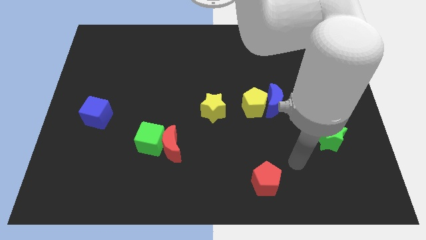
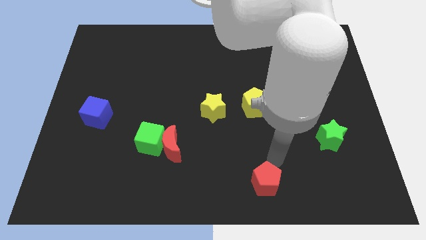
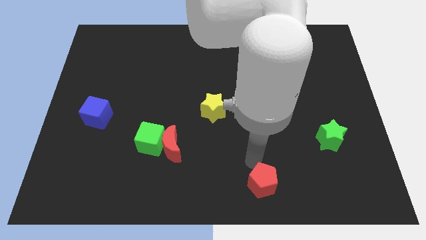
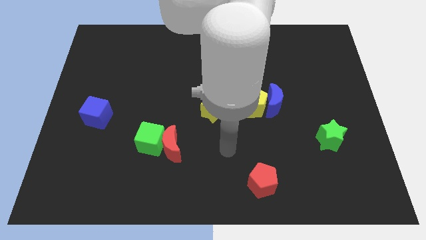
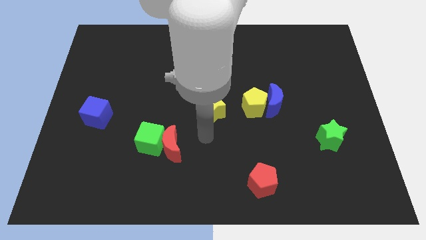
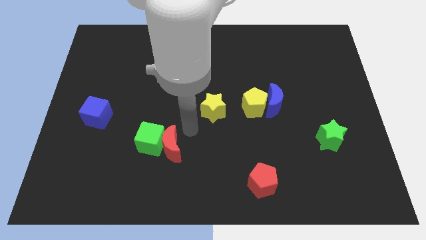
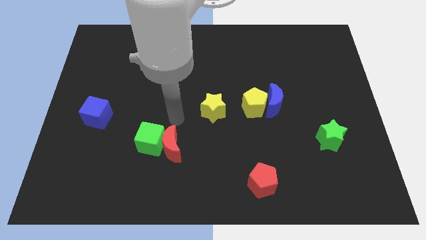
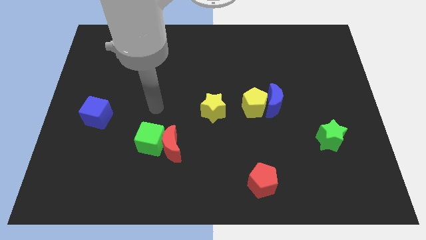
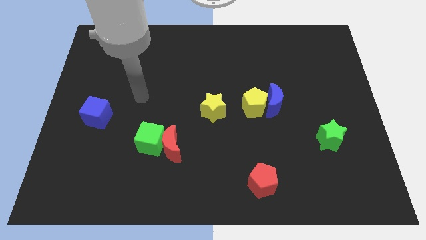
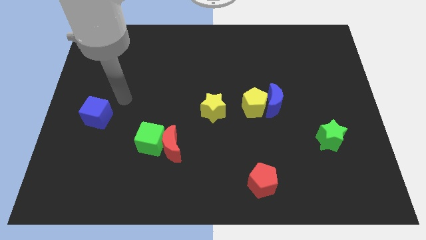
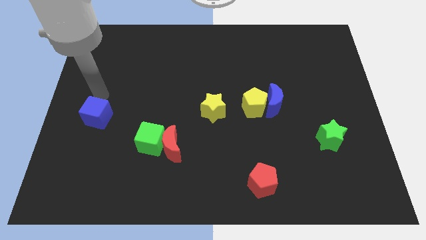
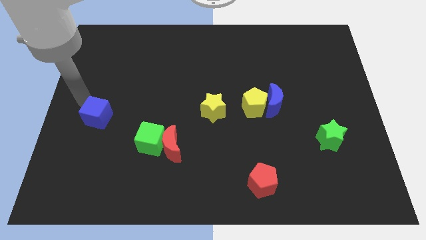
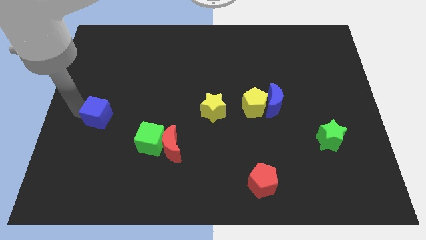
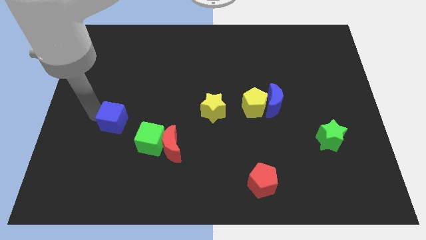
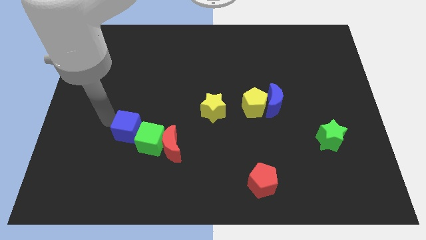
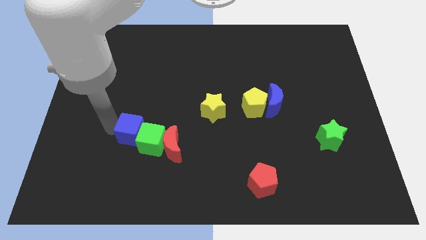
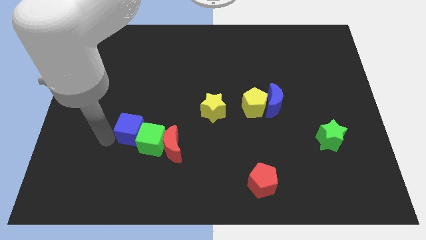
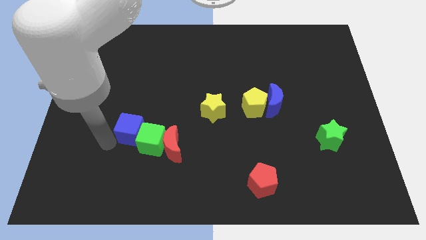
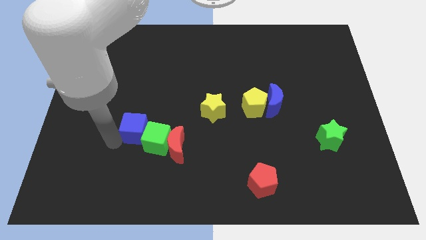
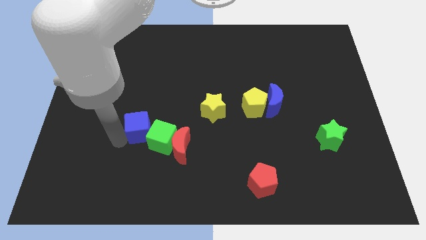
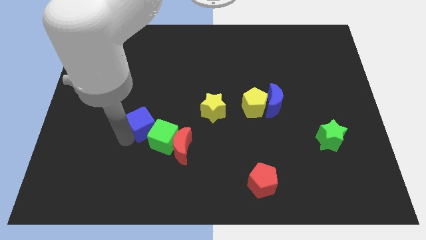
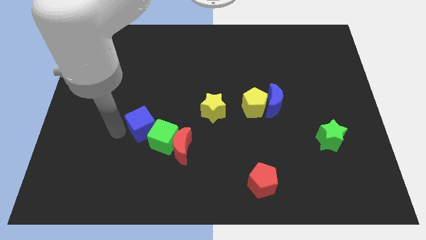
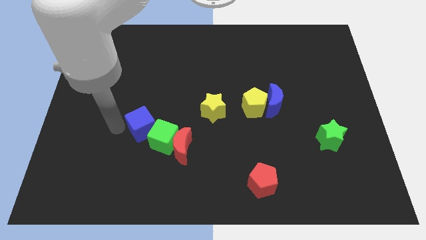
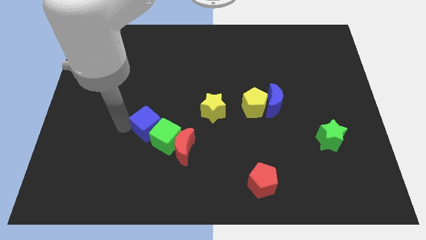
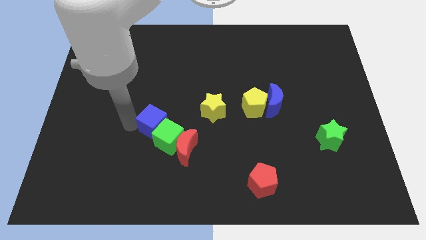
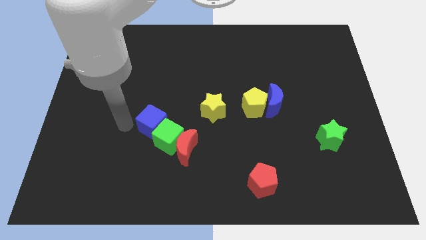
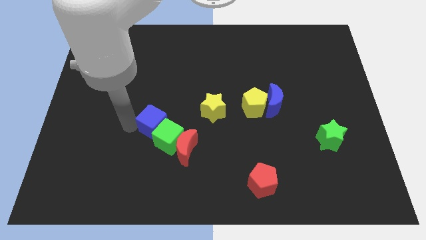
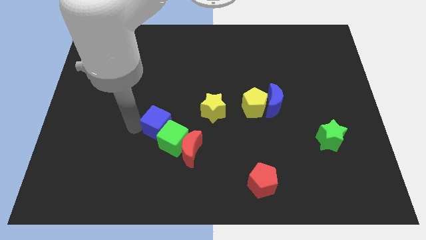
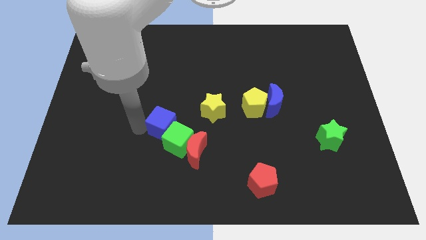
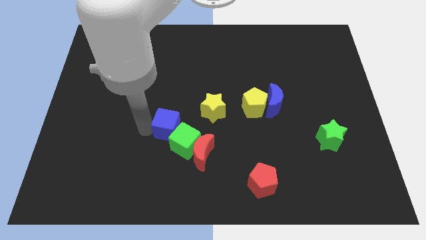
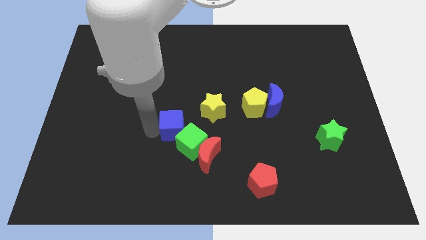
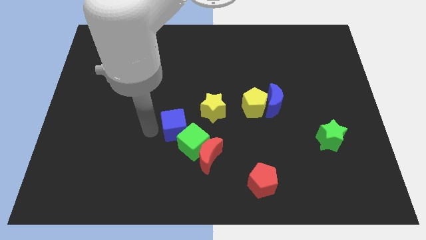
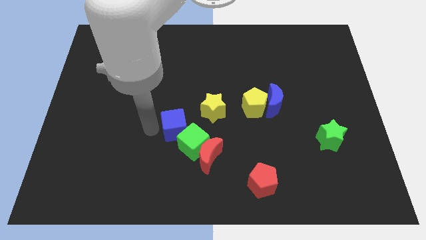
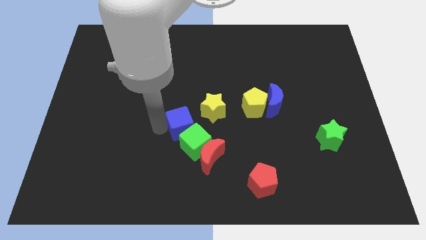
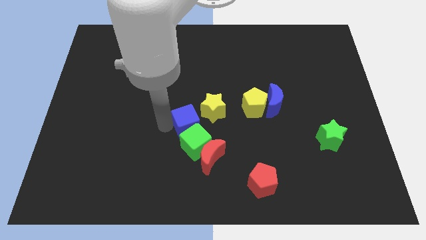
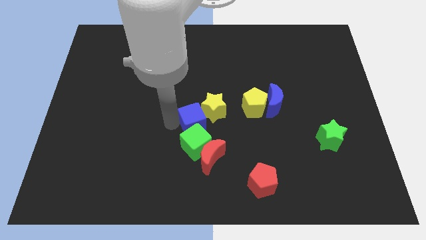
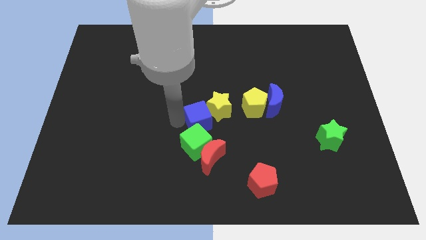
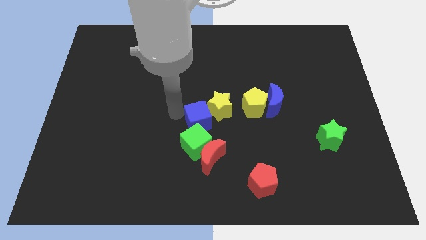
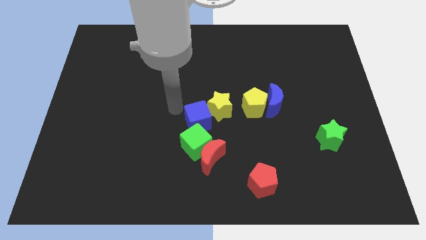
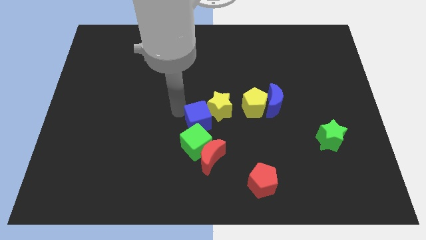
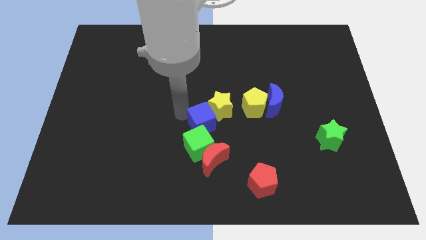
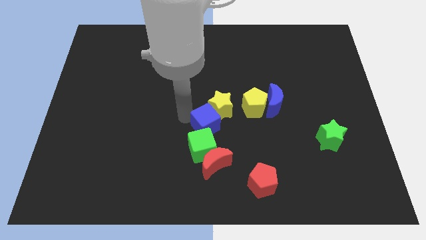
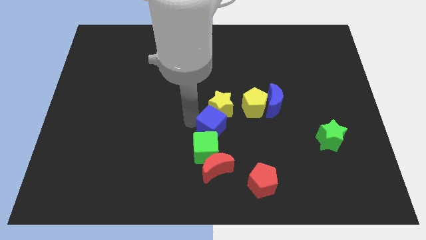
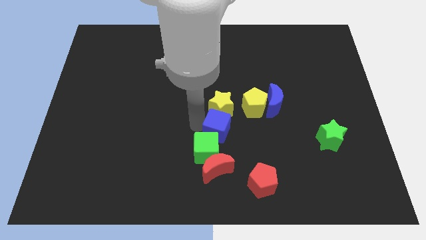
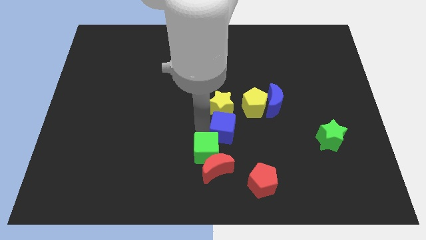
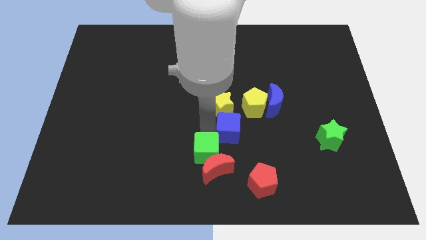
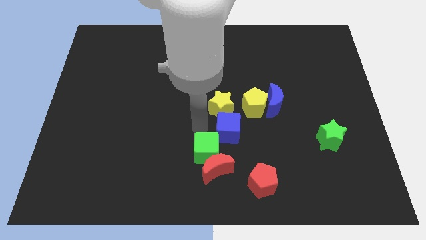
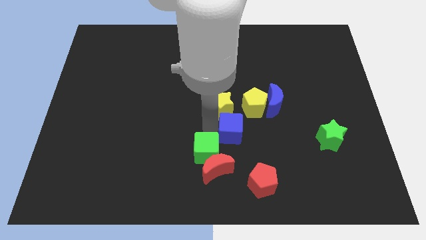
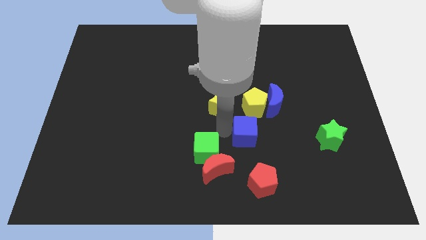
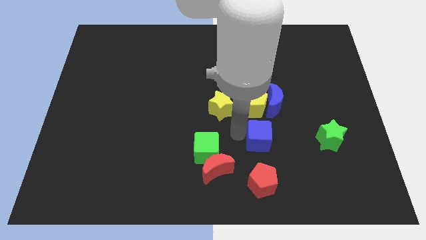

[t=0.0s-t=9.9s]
slide the blue cube left of the green star

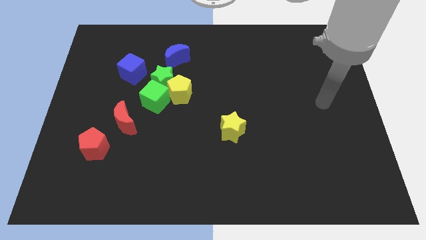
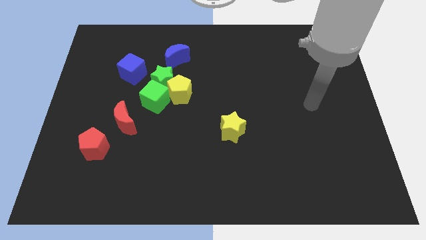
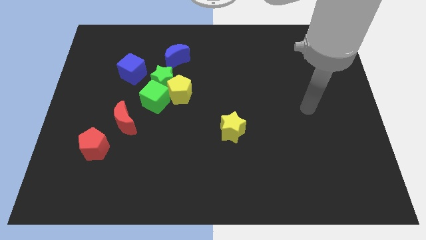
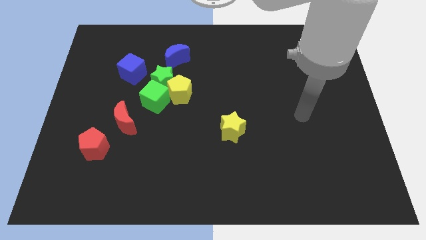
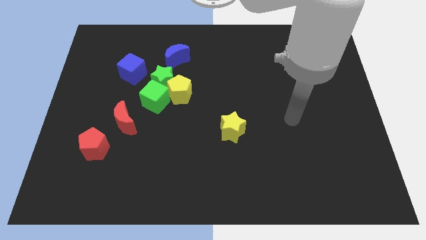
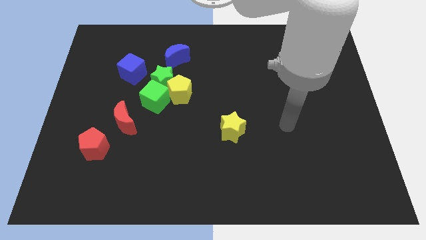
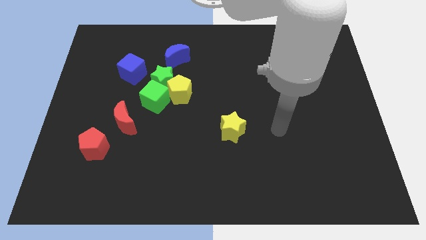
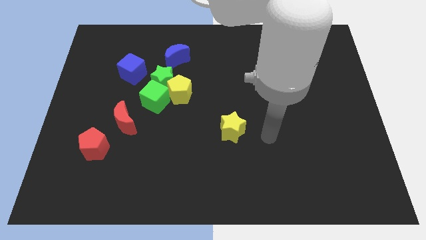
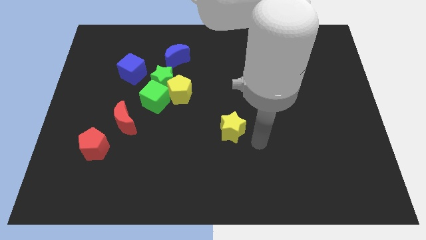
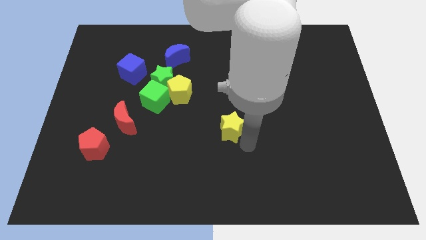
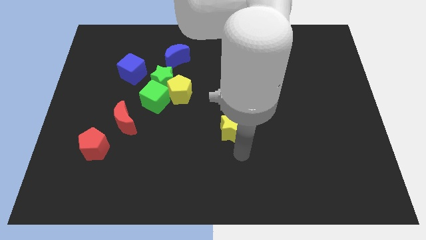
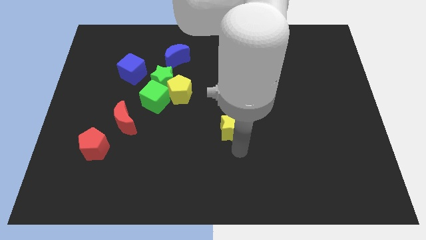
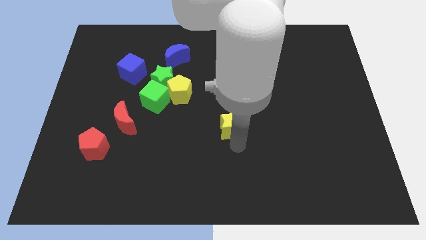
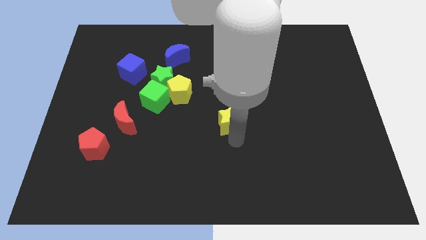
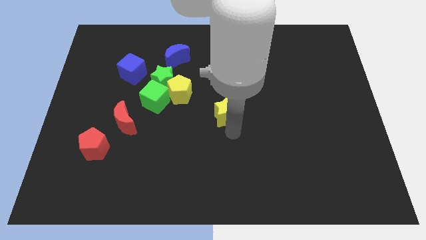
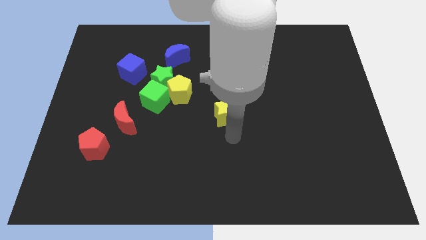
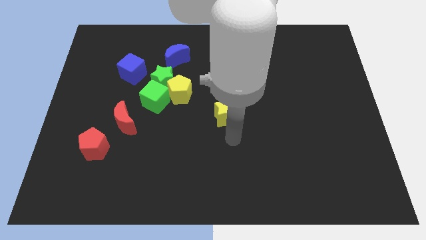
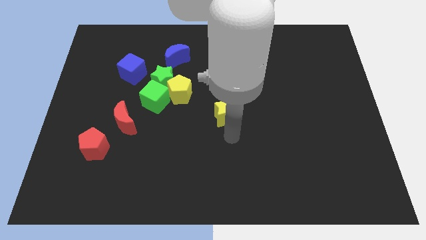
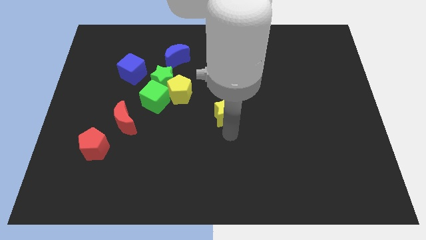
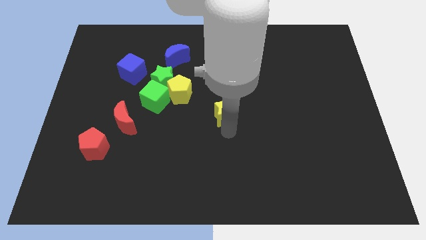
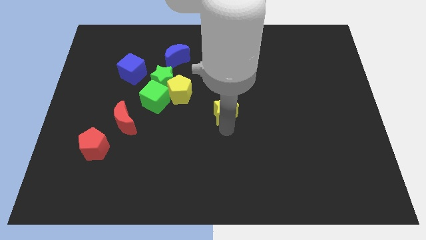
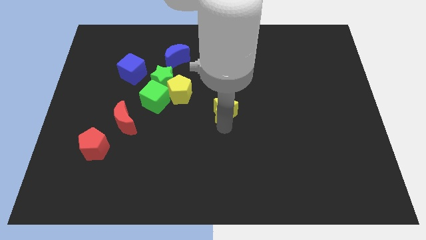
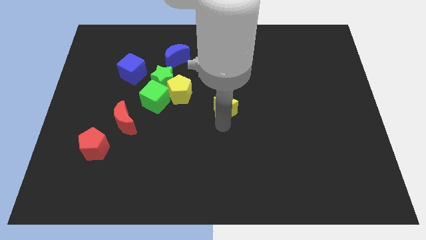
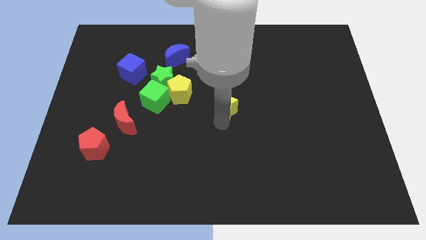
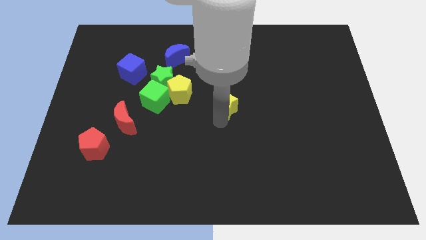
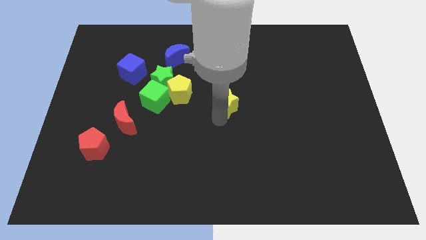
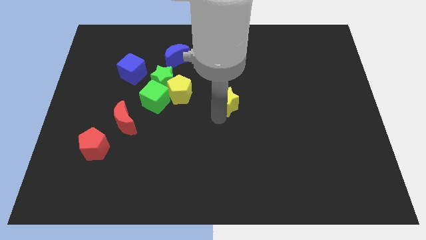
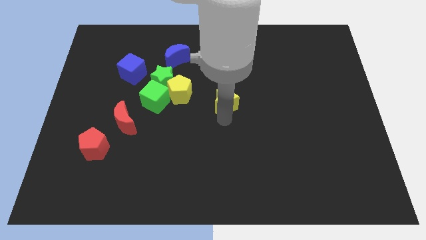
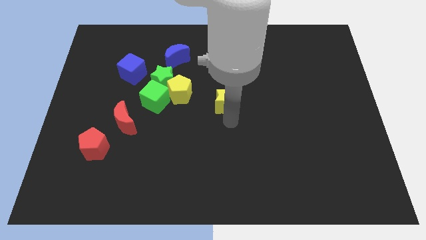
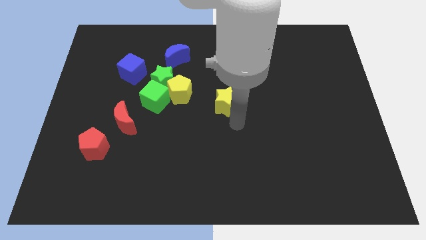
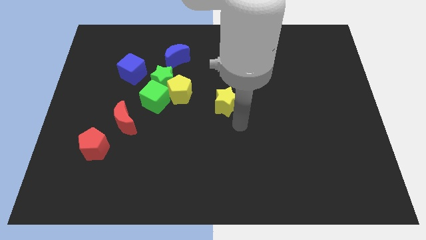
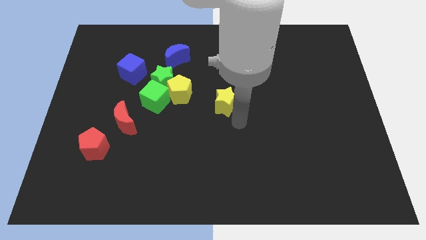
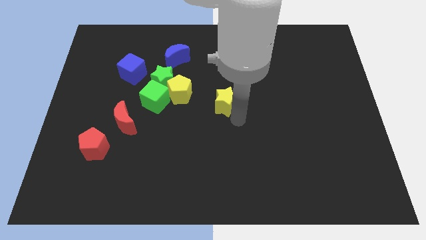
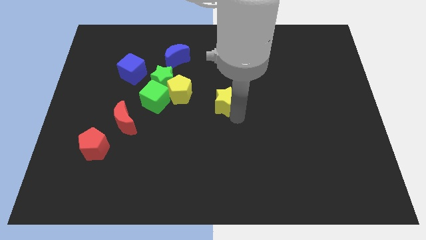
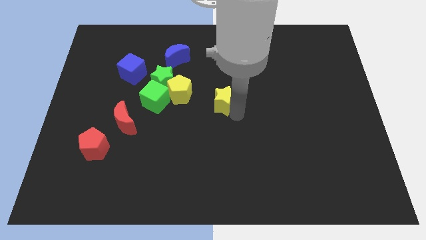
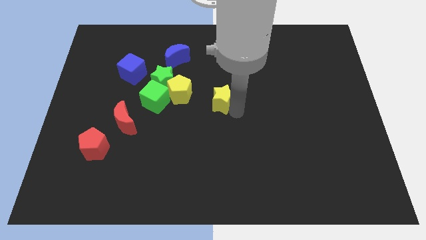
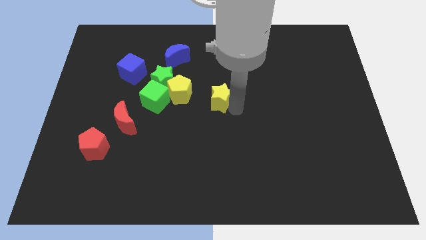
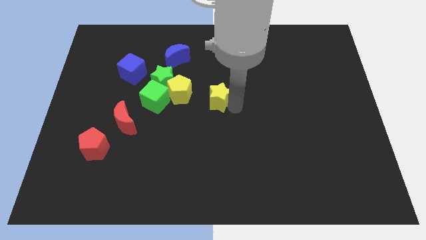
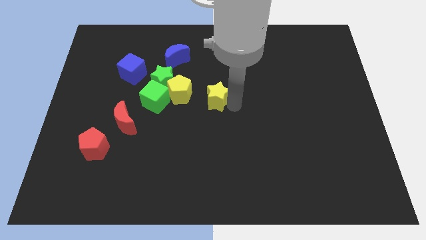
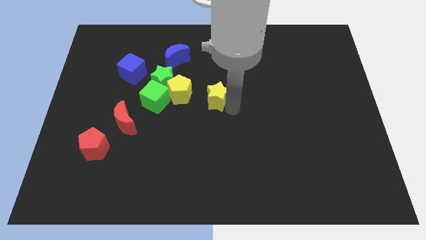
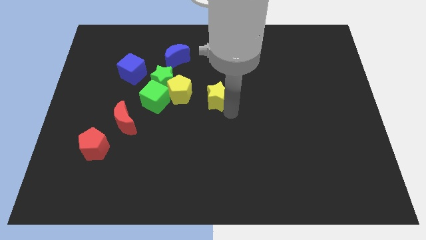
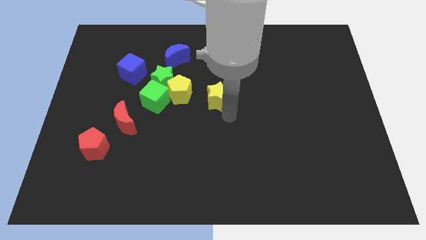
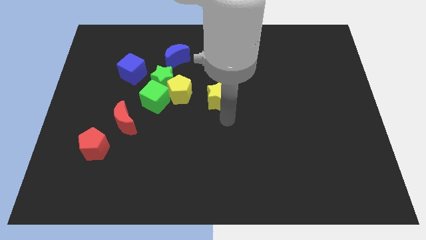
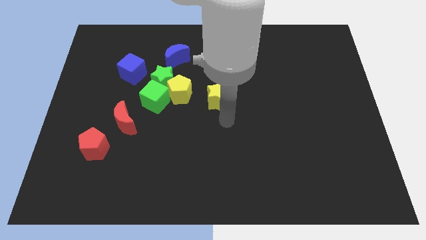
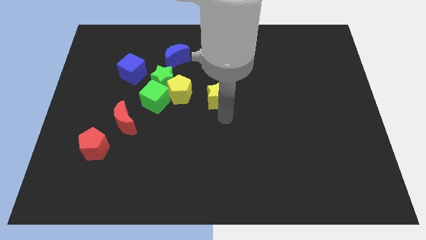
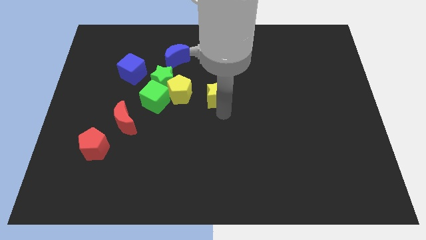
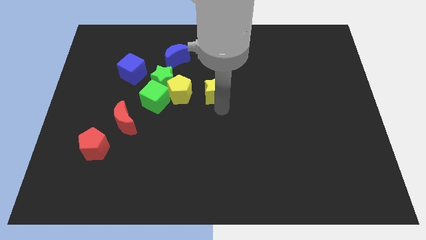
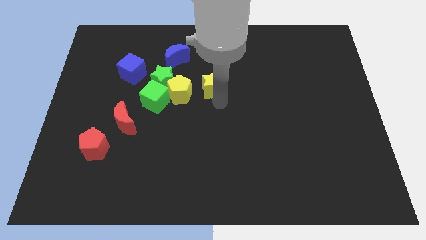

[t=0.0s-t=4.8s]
push the yellow star to the top right side of the yellow pentagon
